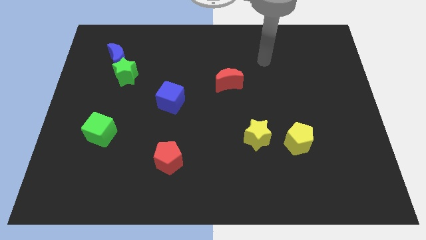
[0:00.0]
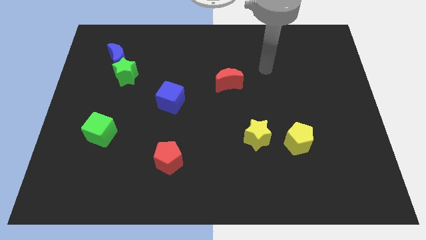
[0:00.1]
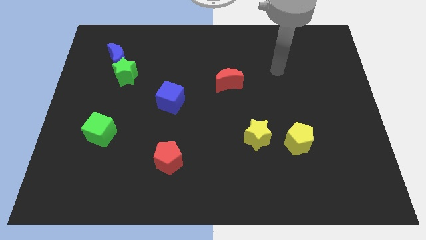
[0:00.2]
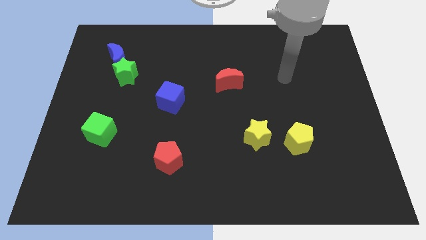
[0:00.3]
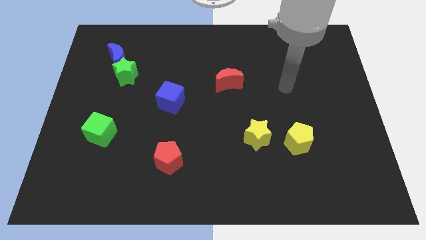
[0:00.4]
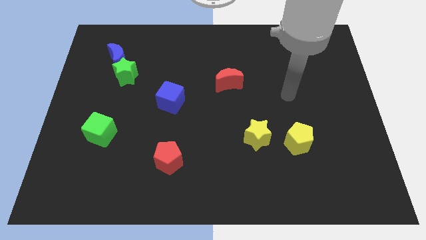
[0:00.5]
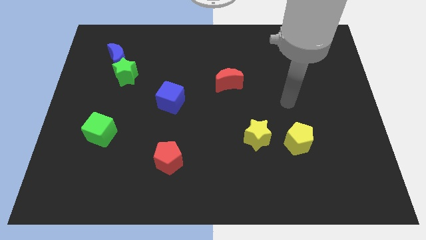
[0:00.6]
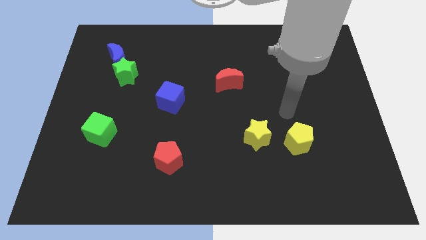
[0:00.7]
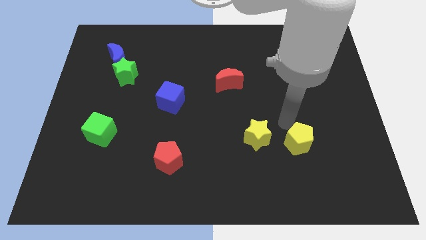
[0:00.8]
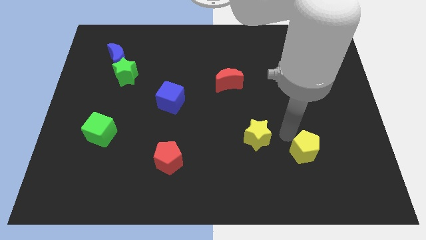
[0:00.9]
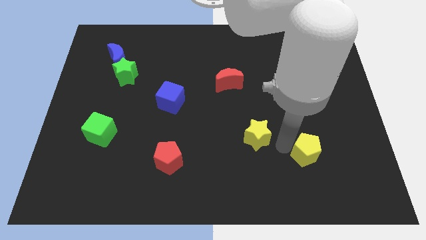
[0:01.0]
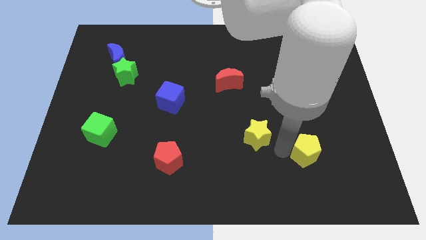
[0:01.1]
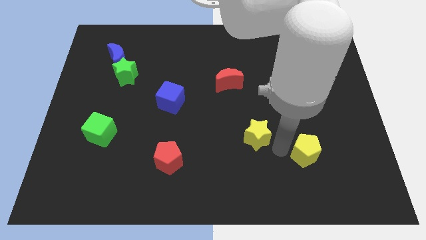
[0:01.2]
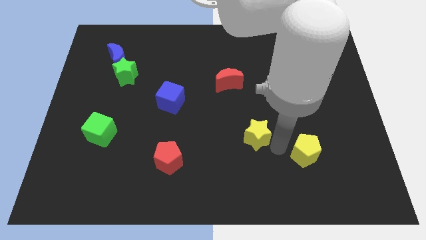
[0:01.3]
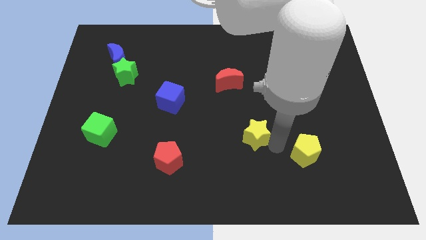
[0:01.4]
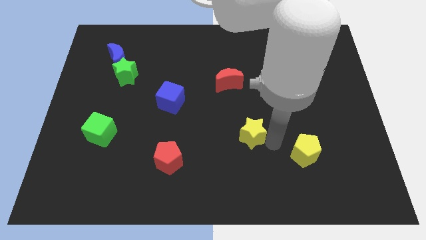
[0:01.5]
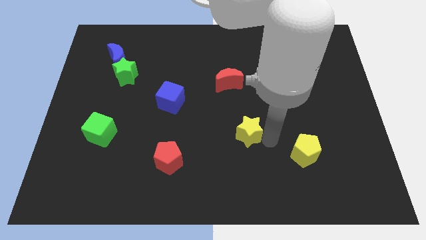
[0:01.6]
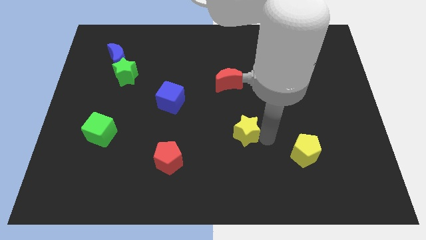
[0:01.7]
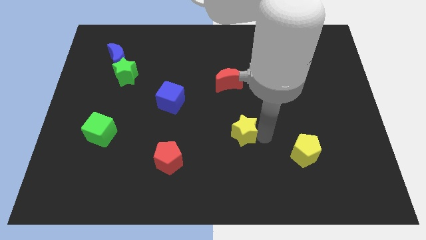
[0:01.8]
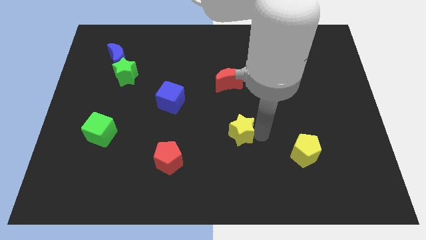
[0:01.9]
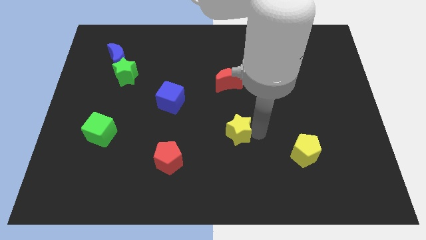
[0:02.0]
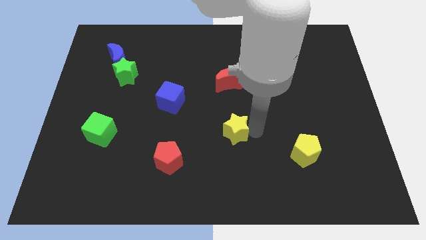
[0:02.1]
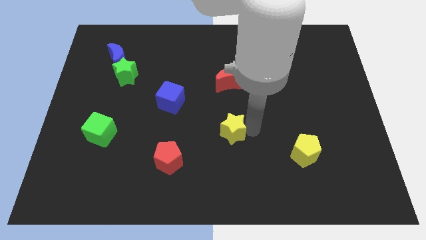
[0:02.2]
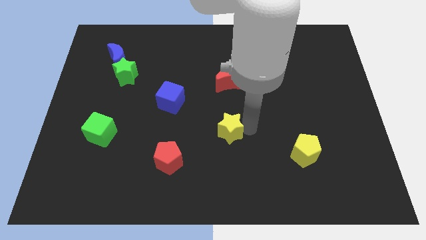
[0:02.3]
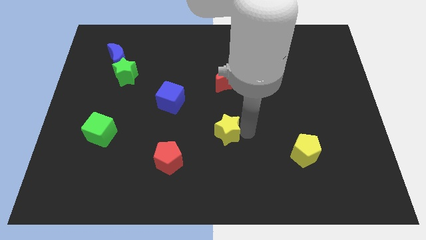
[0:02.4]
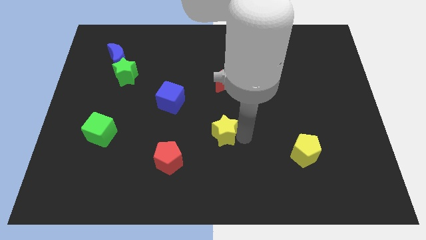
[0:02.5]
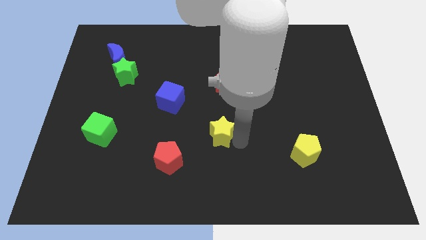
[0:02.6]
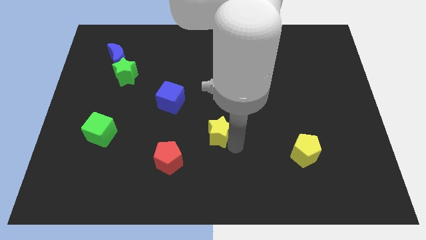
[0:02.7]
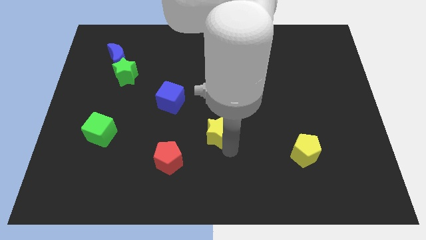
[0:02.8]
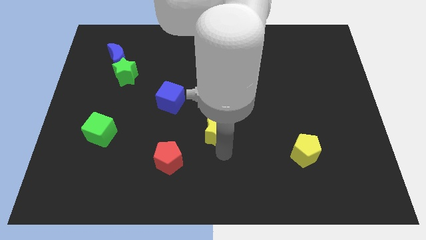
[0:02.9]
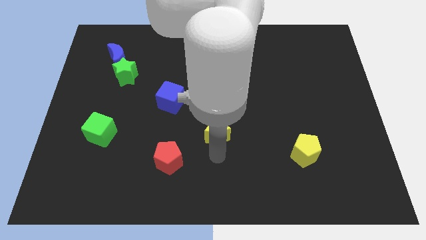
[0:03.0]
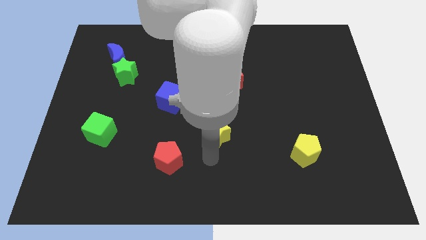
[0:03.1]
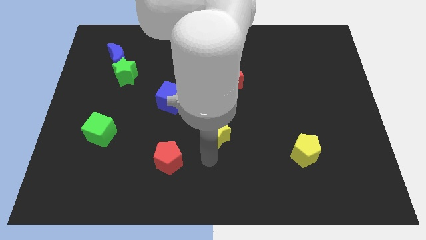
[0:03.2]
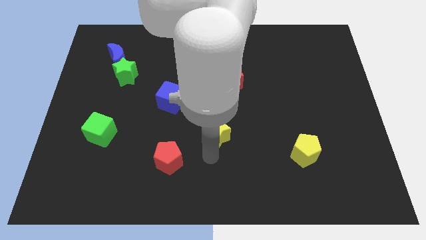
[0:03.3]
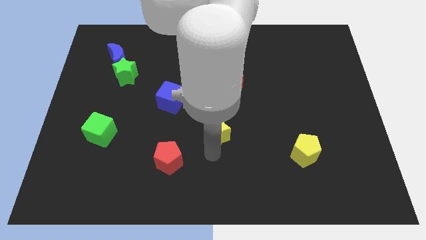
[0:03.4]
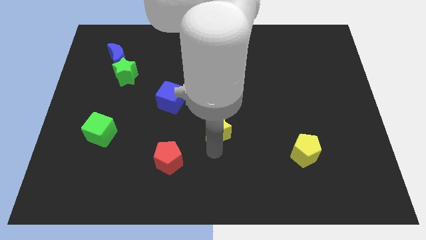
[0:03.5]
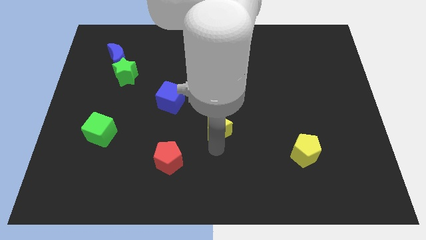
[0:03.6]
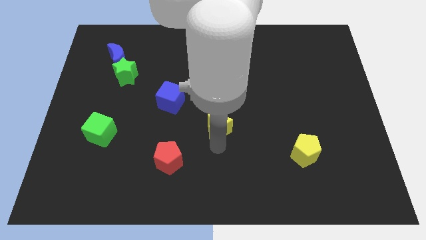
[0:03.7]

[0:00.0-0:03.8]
move the yellow star slightly upwards and left diagonally

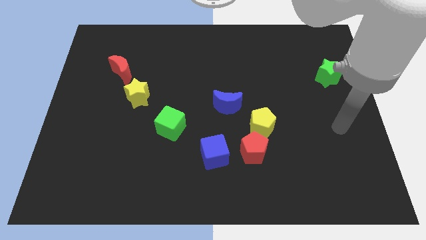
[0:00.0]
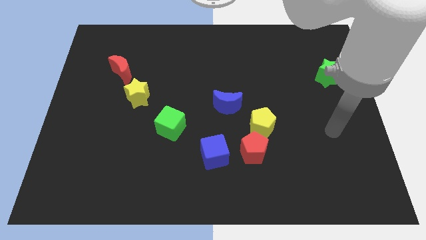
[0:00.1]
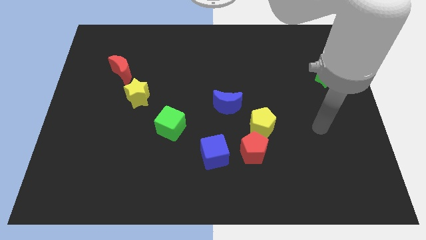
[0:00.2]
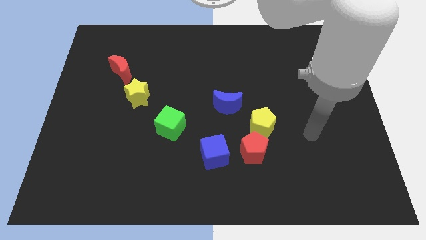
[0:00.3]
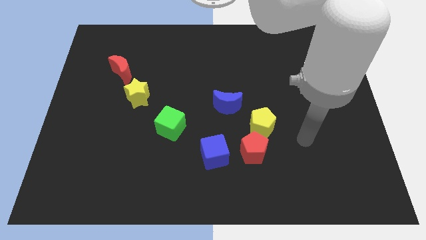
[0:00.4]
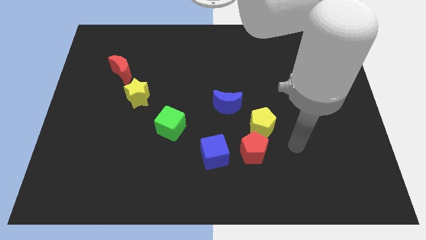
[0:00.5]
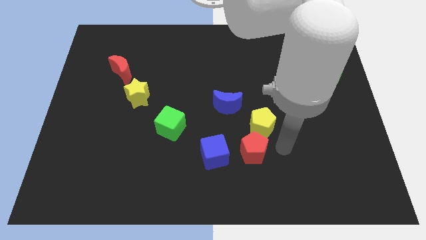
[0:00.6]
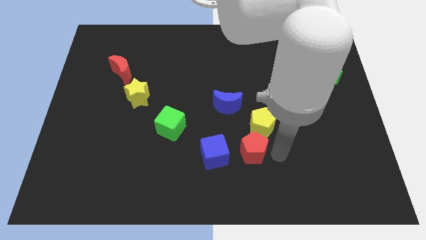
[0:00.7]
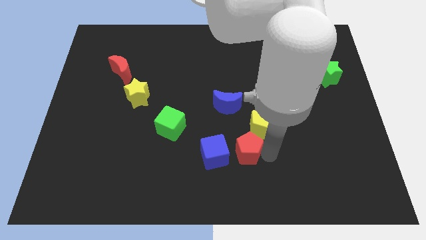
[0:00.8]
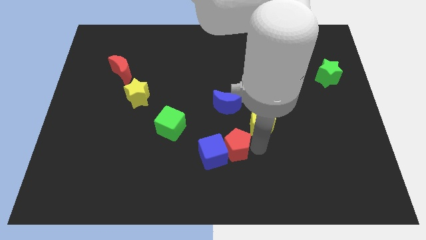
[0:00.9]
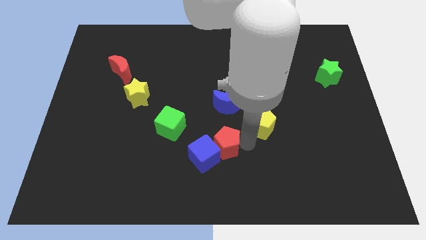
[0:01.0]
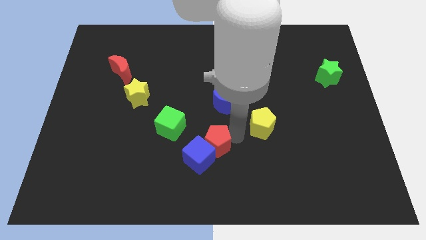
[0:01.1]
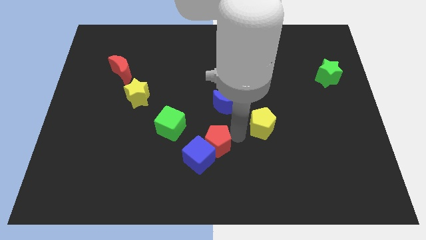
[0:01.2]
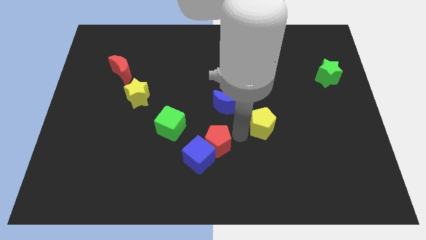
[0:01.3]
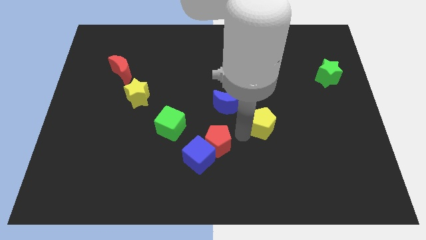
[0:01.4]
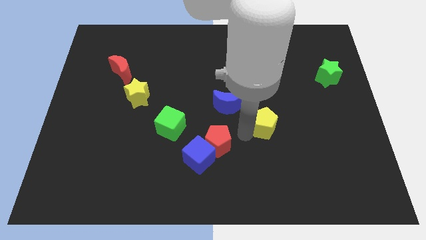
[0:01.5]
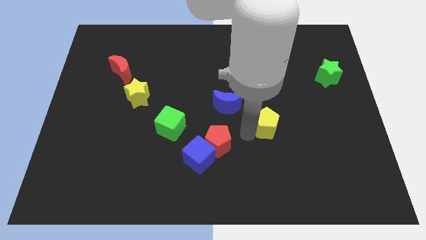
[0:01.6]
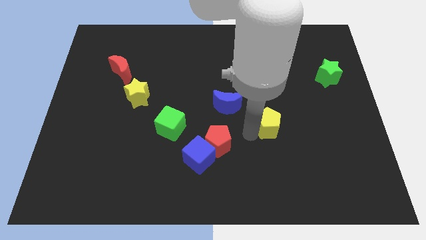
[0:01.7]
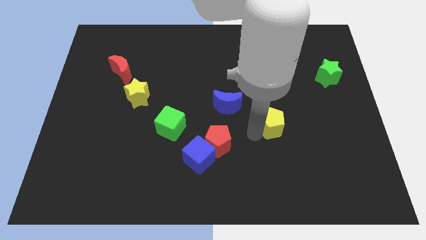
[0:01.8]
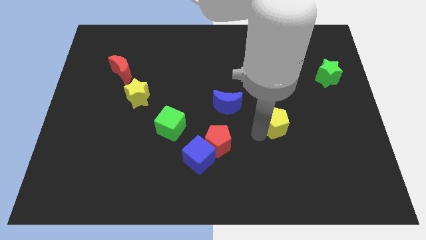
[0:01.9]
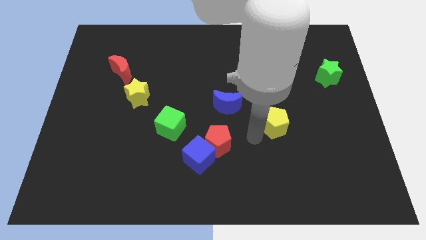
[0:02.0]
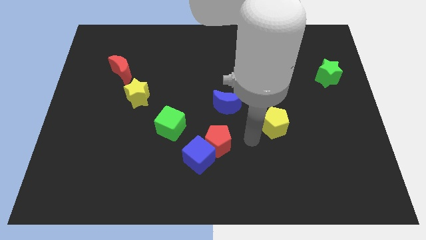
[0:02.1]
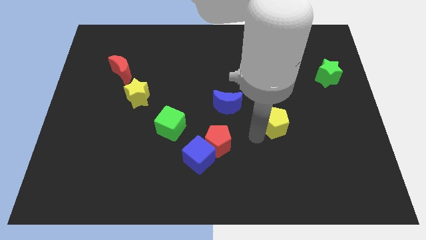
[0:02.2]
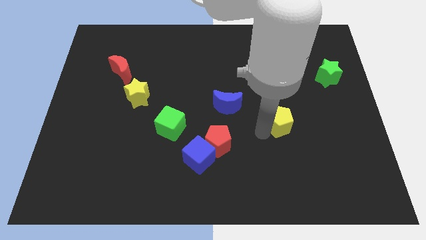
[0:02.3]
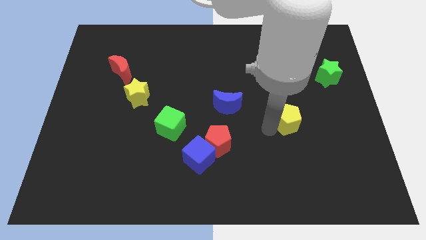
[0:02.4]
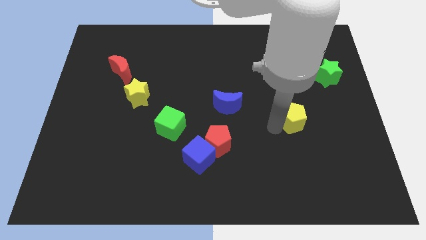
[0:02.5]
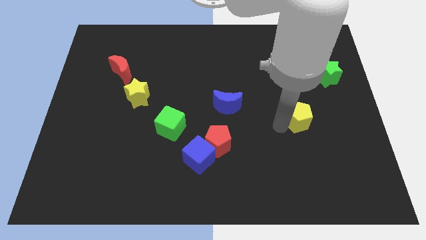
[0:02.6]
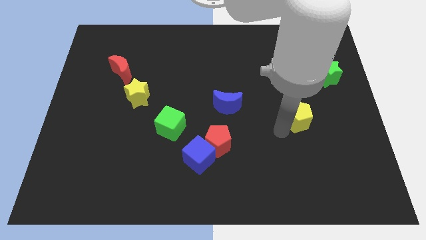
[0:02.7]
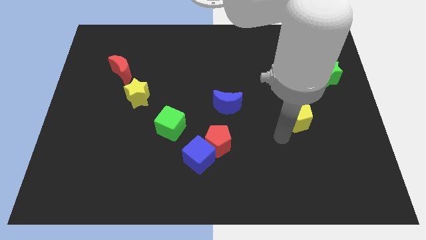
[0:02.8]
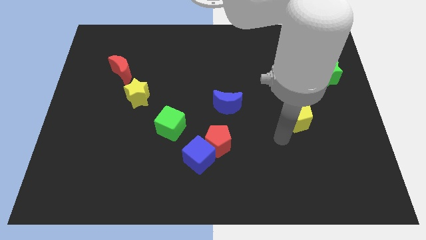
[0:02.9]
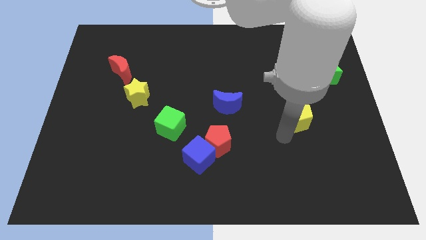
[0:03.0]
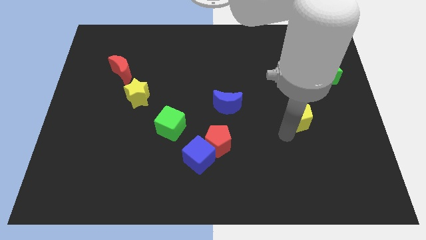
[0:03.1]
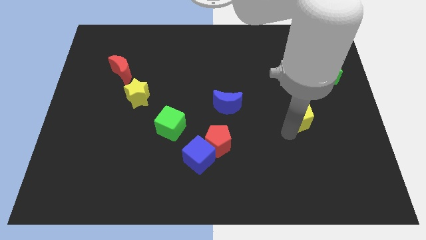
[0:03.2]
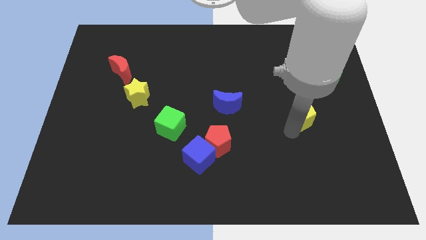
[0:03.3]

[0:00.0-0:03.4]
push the yellow pentagon upwards and then to the right somewhat

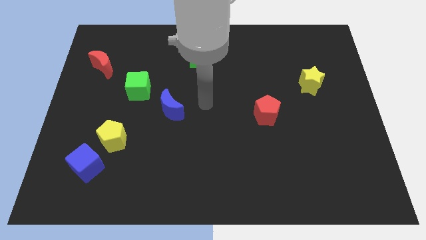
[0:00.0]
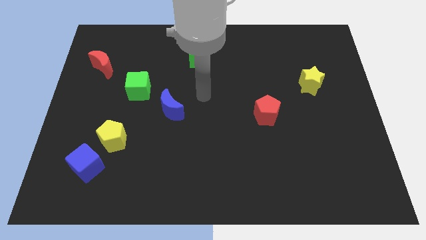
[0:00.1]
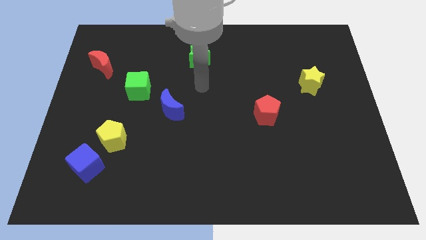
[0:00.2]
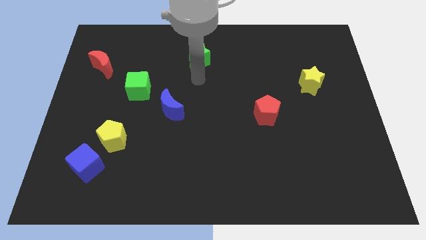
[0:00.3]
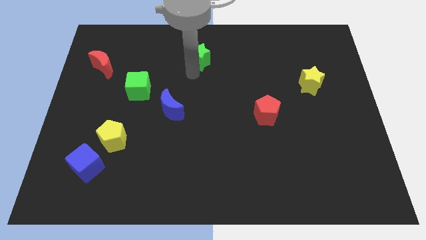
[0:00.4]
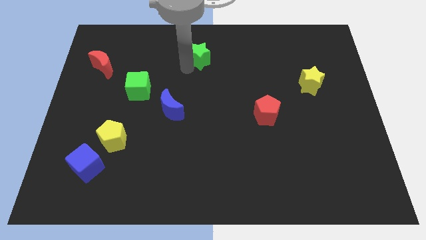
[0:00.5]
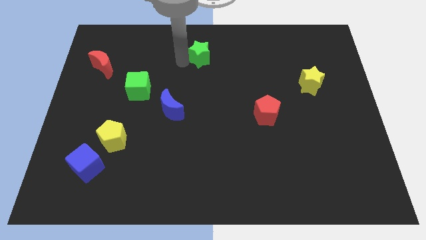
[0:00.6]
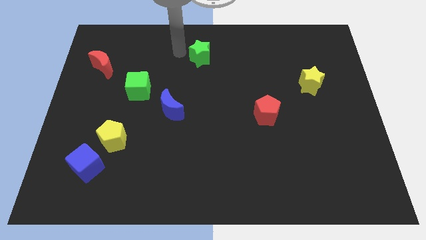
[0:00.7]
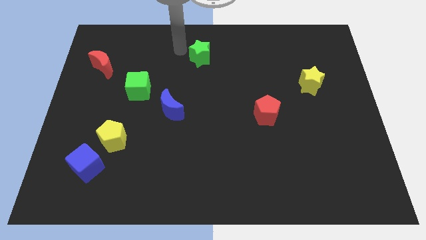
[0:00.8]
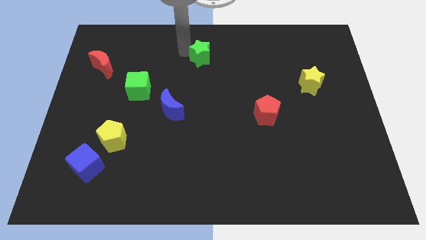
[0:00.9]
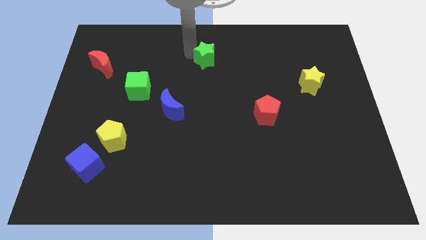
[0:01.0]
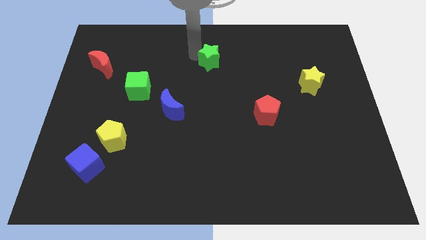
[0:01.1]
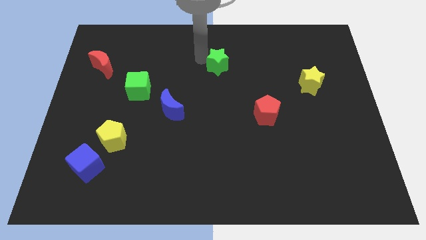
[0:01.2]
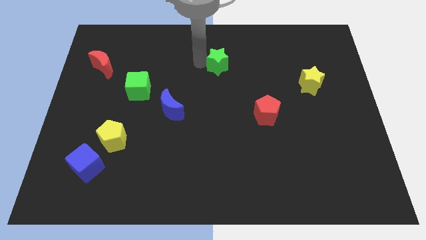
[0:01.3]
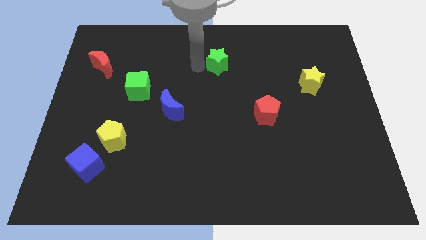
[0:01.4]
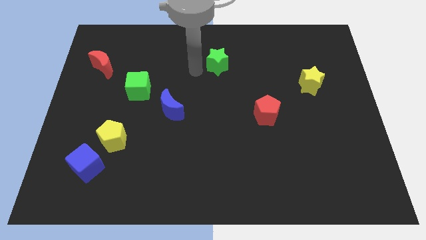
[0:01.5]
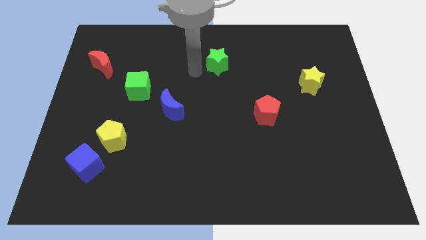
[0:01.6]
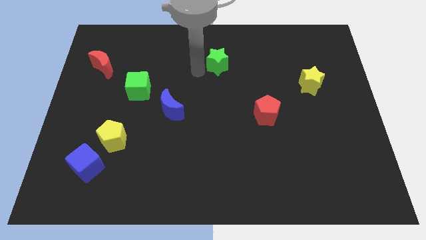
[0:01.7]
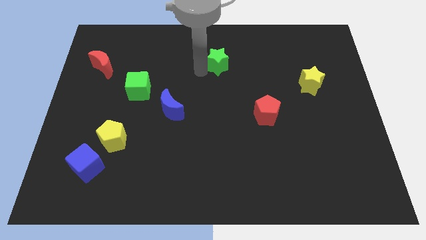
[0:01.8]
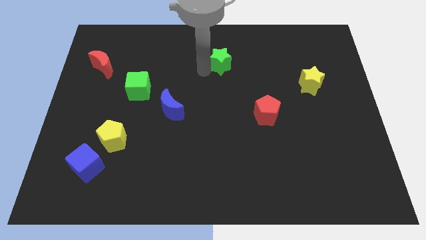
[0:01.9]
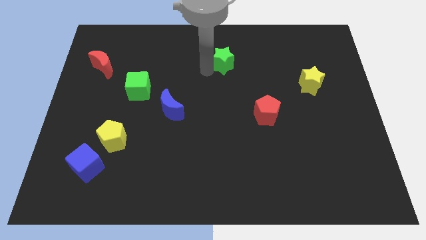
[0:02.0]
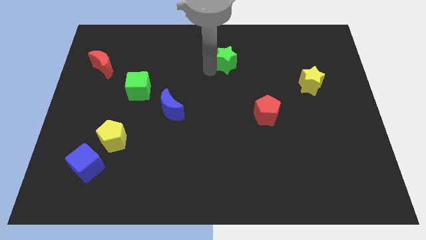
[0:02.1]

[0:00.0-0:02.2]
slightly slide the green star right
